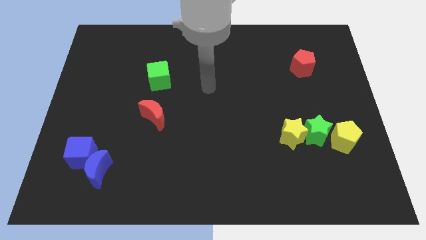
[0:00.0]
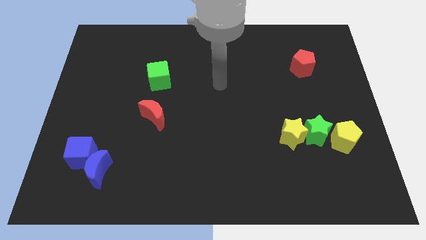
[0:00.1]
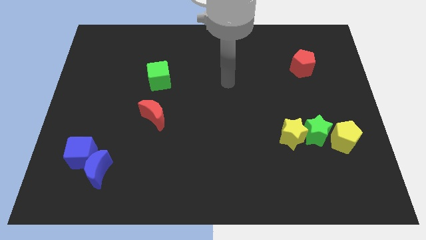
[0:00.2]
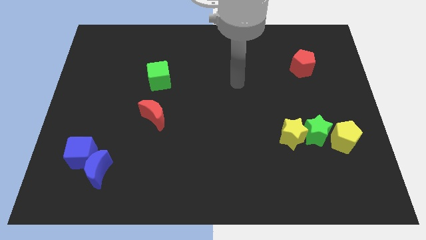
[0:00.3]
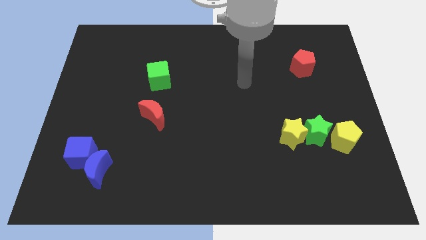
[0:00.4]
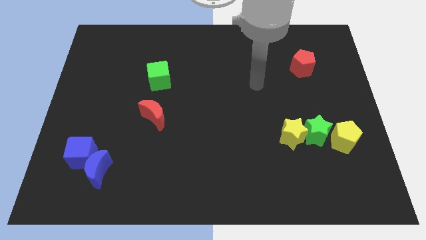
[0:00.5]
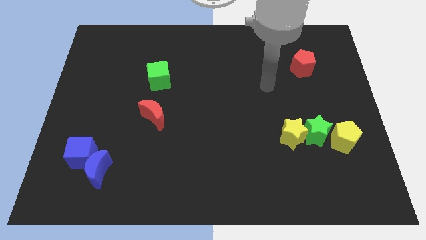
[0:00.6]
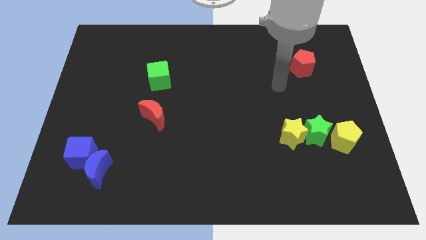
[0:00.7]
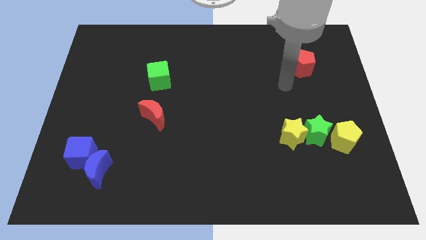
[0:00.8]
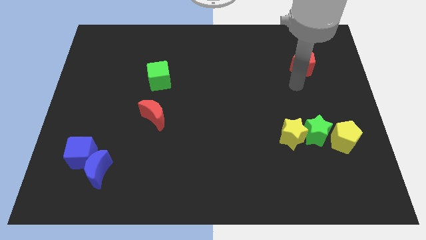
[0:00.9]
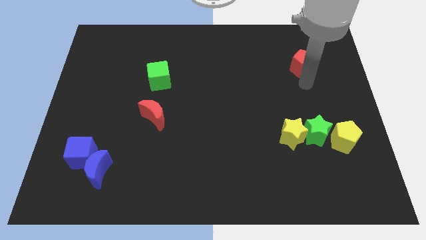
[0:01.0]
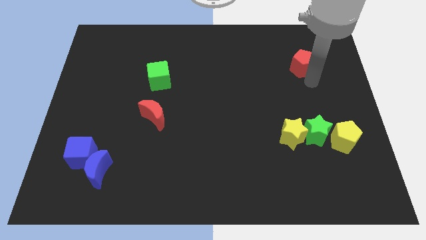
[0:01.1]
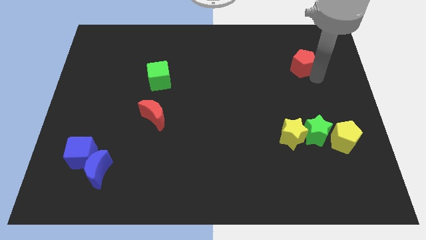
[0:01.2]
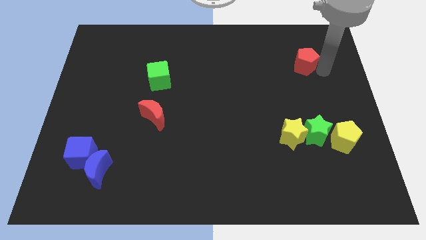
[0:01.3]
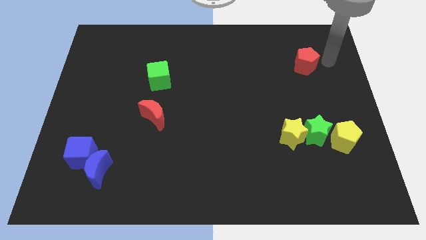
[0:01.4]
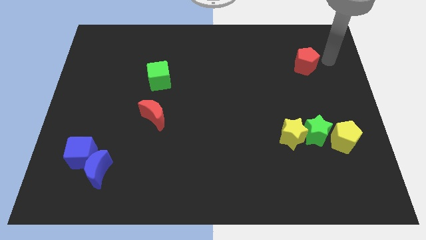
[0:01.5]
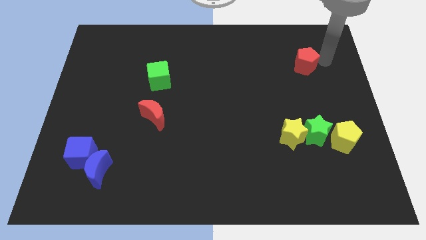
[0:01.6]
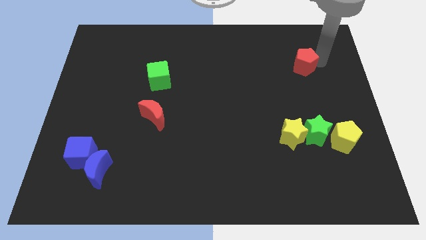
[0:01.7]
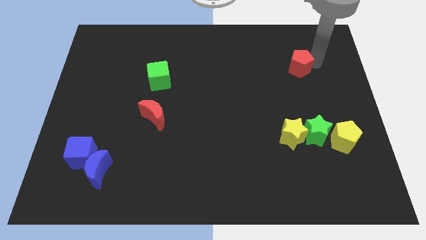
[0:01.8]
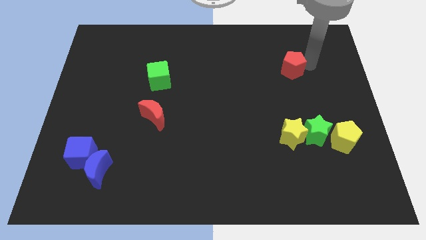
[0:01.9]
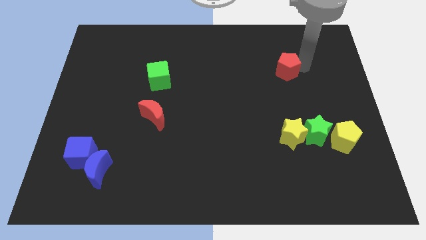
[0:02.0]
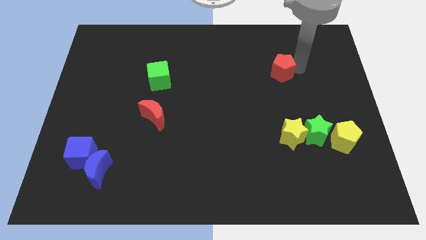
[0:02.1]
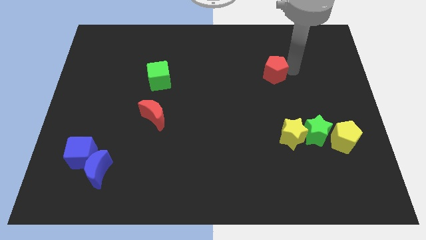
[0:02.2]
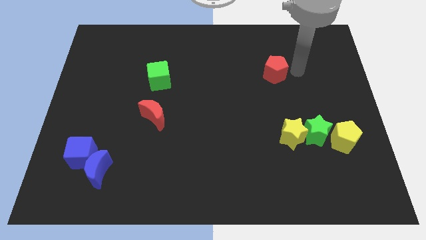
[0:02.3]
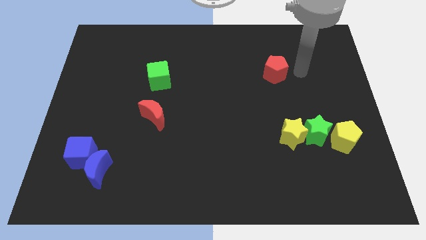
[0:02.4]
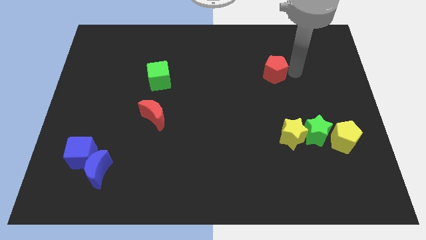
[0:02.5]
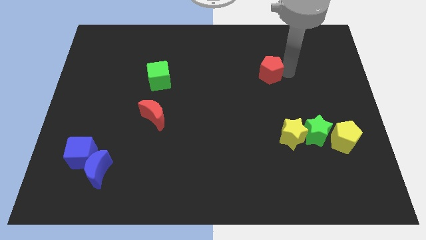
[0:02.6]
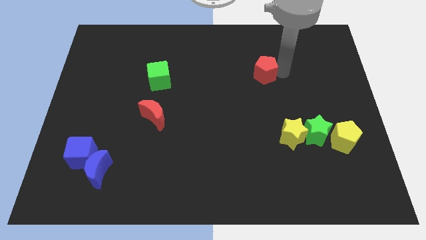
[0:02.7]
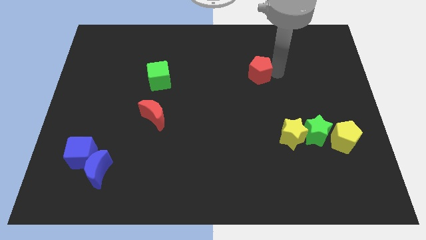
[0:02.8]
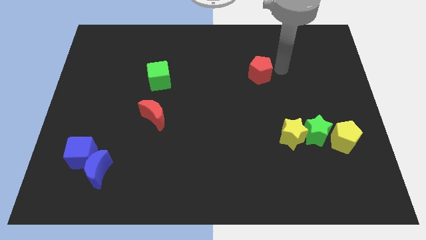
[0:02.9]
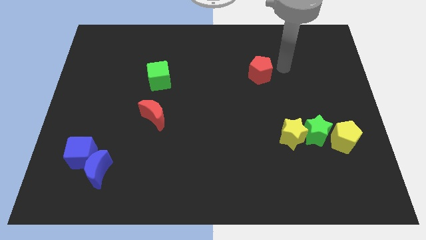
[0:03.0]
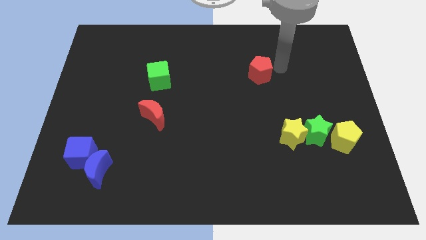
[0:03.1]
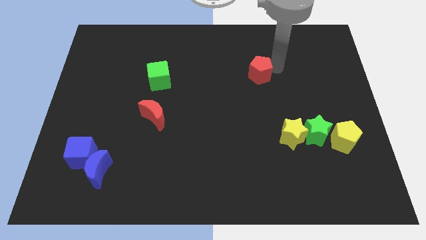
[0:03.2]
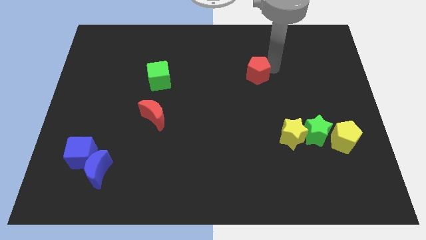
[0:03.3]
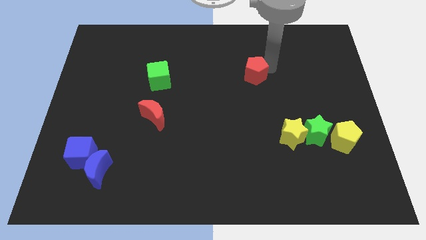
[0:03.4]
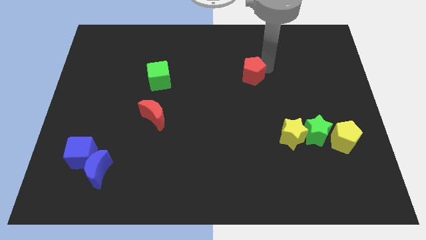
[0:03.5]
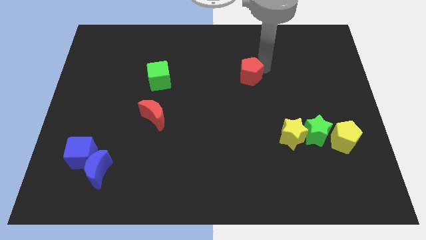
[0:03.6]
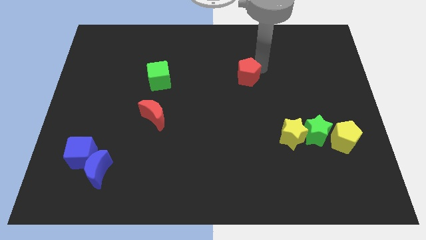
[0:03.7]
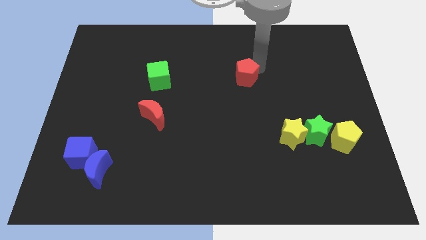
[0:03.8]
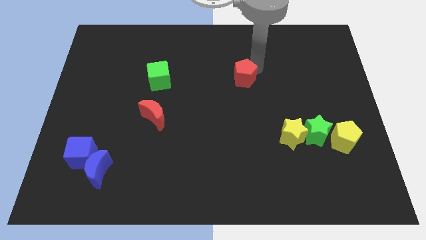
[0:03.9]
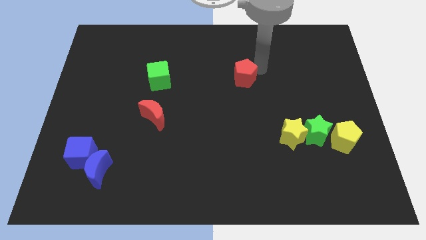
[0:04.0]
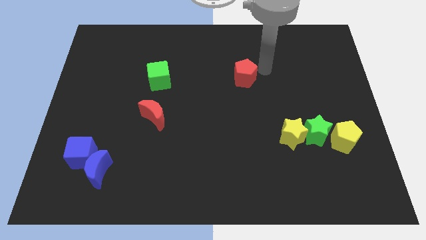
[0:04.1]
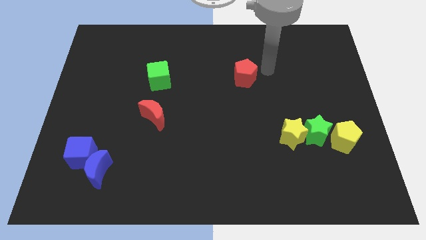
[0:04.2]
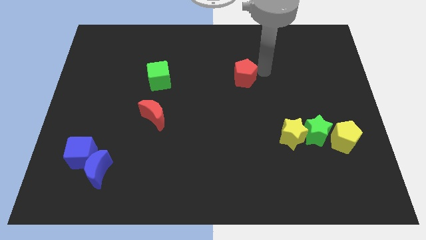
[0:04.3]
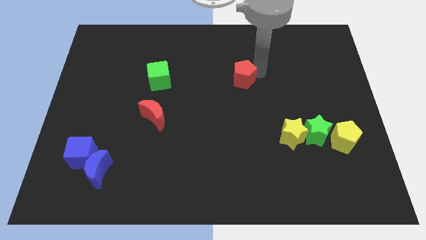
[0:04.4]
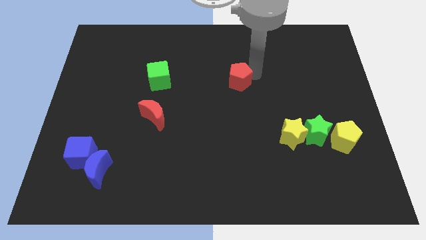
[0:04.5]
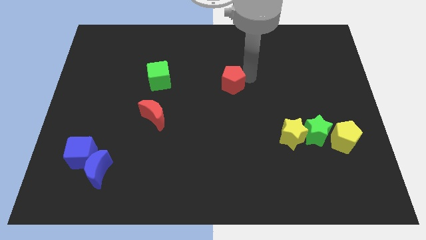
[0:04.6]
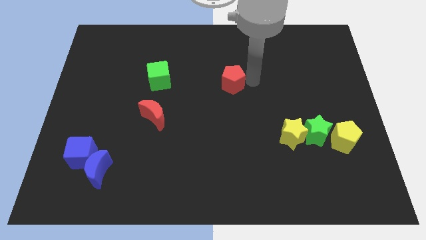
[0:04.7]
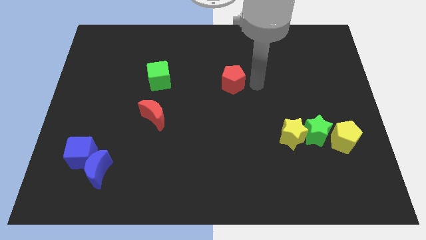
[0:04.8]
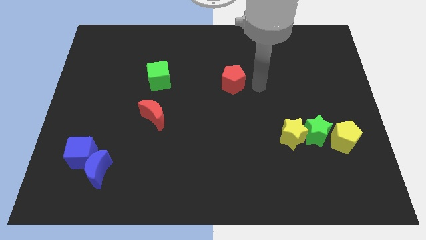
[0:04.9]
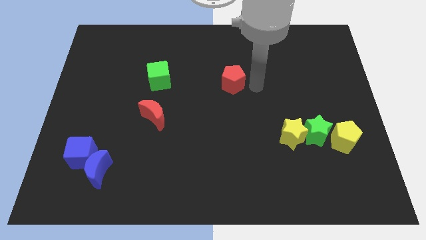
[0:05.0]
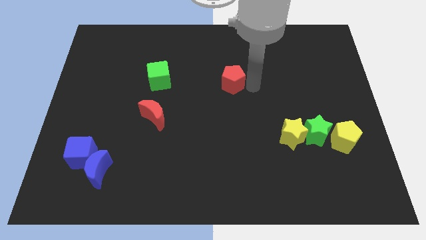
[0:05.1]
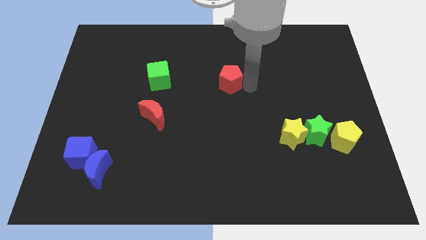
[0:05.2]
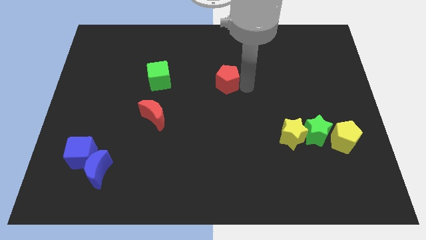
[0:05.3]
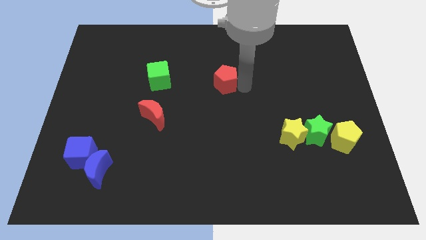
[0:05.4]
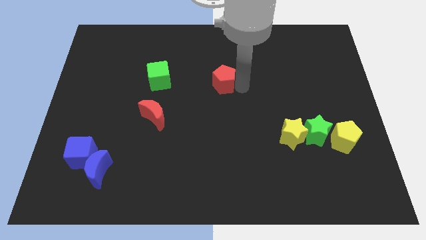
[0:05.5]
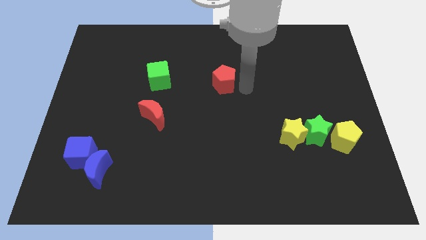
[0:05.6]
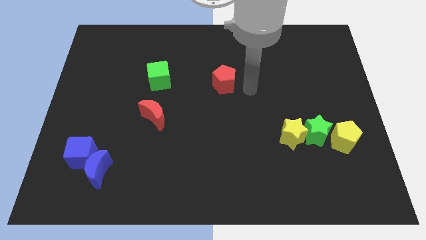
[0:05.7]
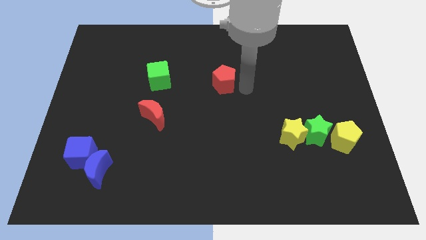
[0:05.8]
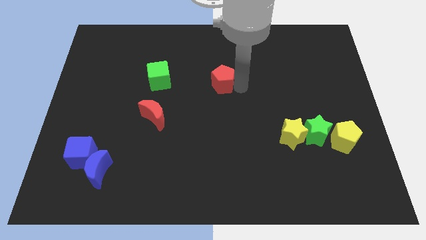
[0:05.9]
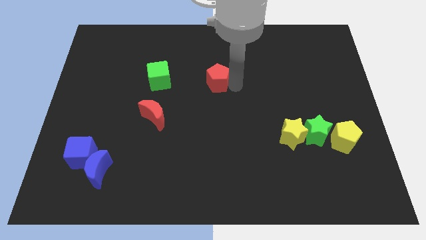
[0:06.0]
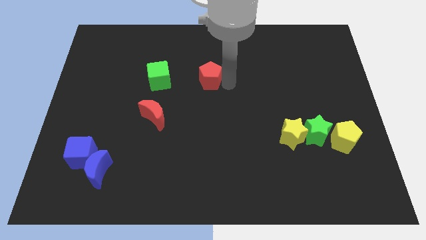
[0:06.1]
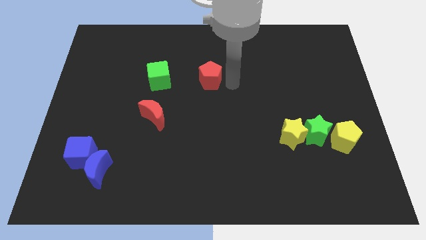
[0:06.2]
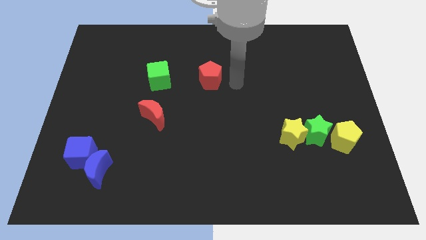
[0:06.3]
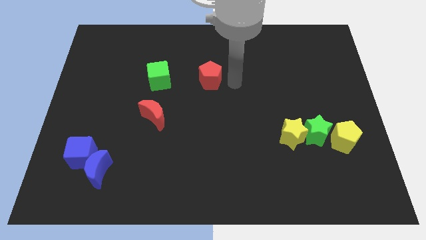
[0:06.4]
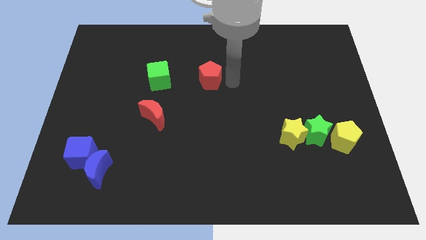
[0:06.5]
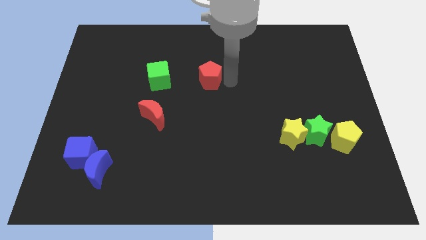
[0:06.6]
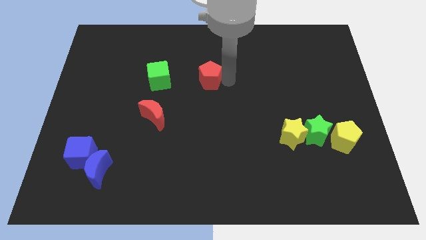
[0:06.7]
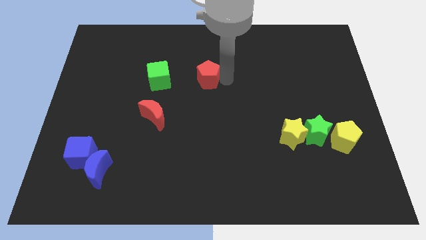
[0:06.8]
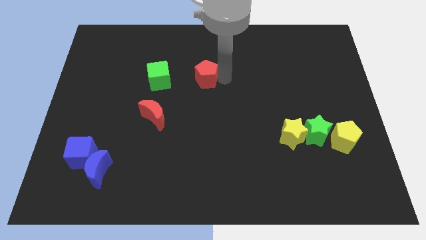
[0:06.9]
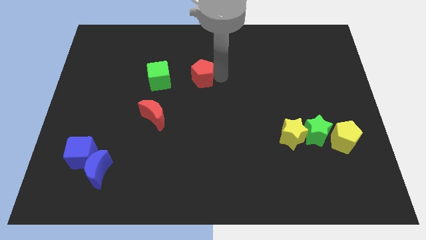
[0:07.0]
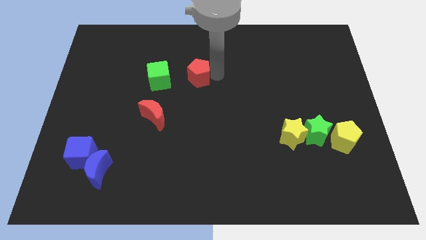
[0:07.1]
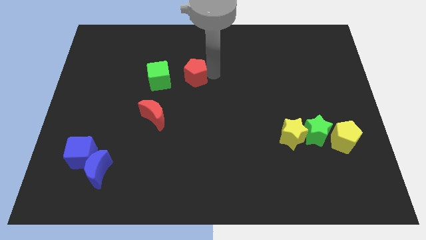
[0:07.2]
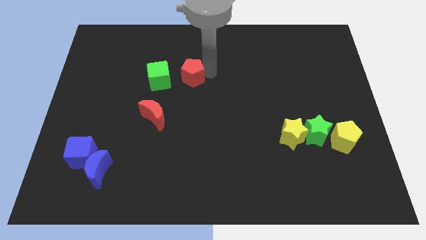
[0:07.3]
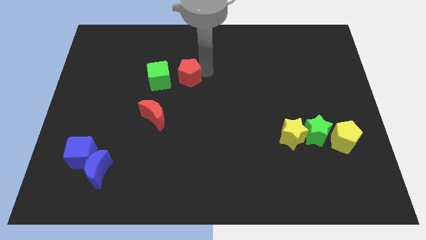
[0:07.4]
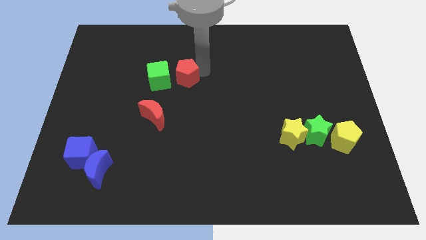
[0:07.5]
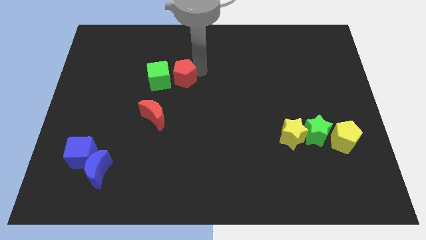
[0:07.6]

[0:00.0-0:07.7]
move the red pentagon to the green cube
